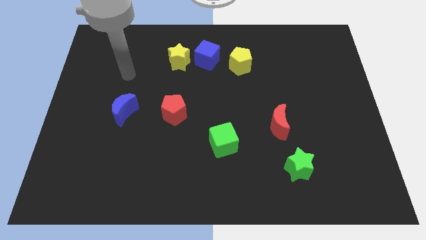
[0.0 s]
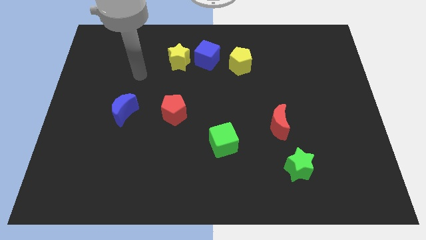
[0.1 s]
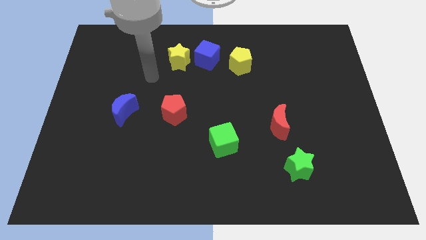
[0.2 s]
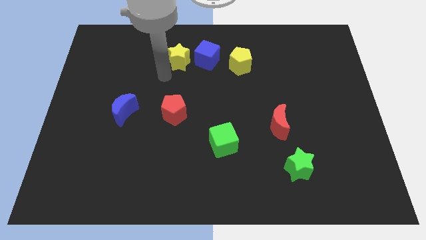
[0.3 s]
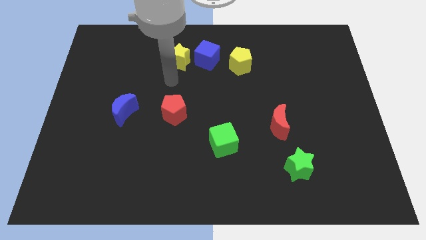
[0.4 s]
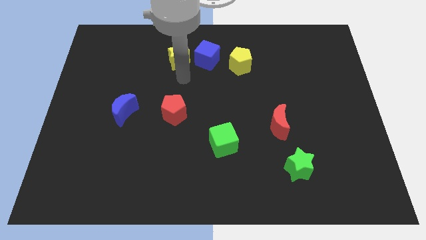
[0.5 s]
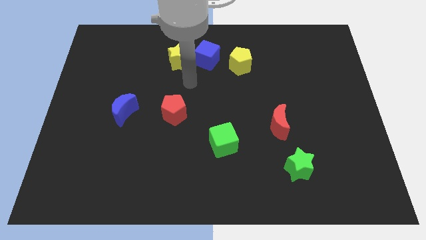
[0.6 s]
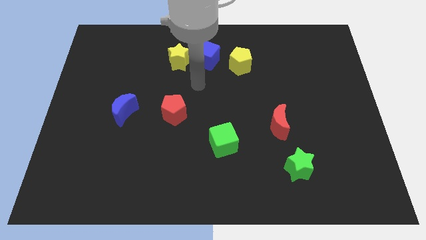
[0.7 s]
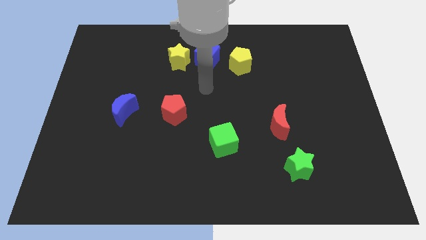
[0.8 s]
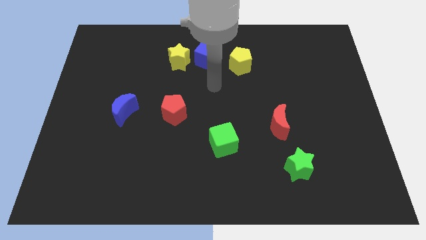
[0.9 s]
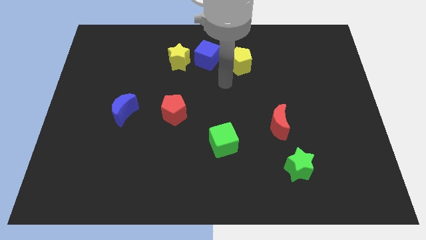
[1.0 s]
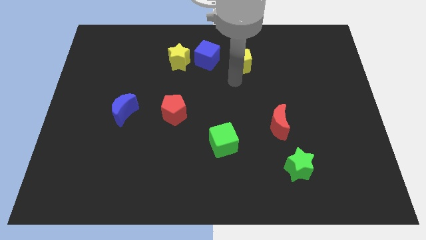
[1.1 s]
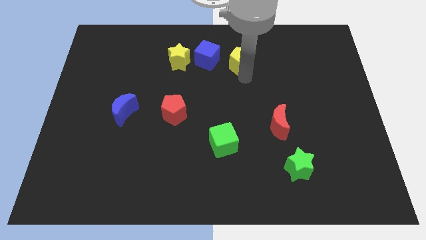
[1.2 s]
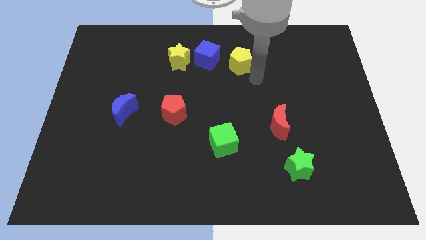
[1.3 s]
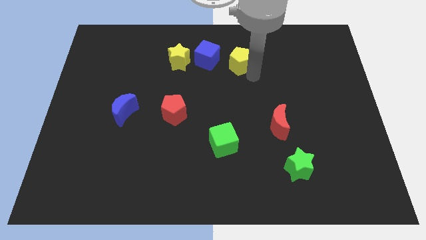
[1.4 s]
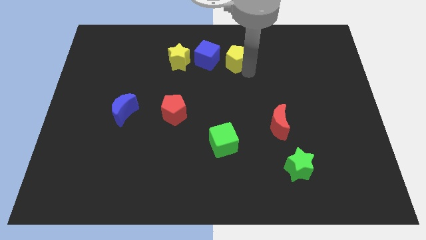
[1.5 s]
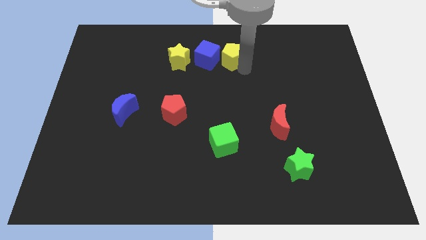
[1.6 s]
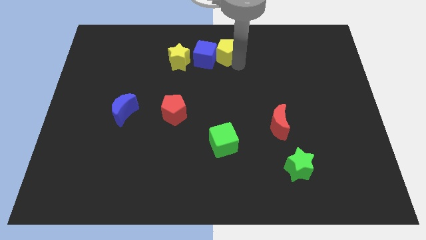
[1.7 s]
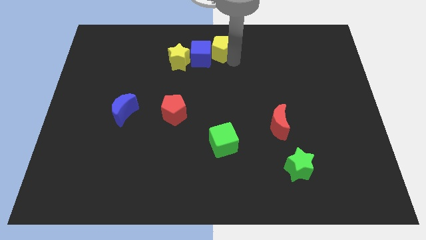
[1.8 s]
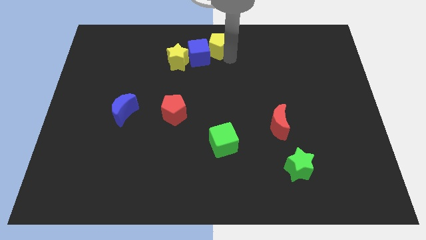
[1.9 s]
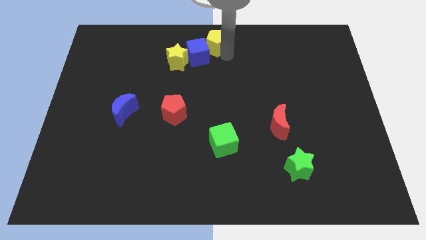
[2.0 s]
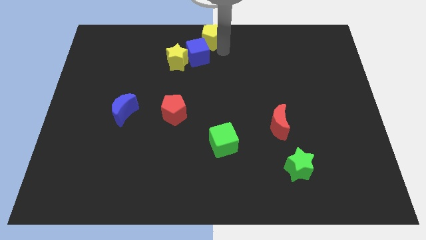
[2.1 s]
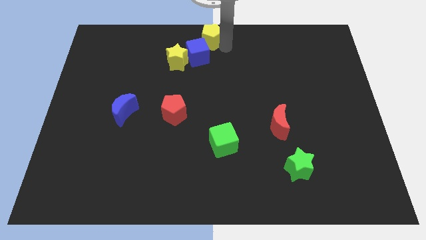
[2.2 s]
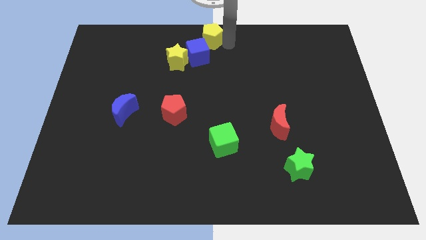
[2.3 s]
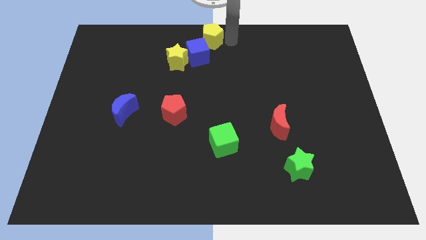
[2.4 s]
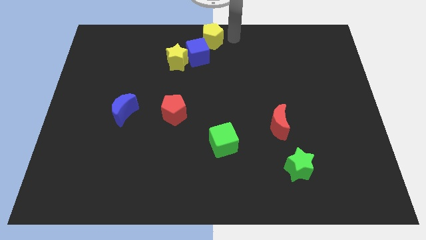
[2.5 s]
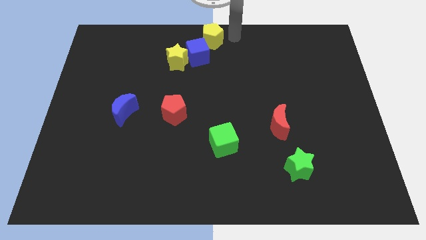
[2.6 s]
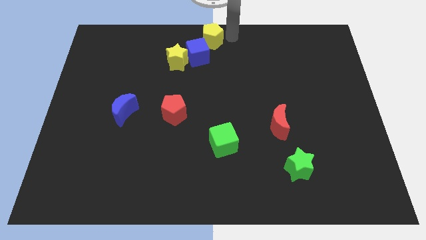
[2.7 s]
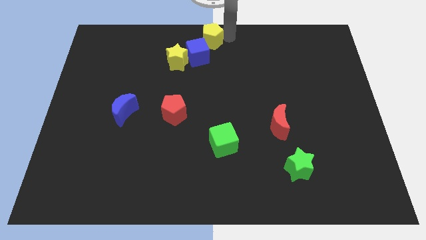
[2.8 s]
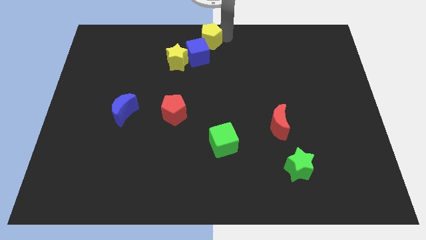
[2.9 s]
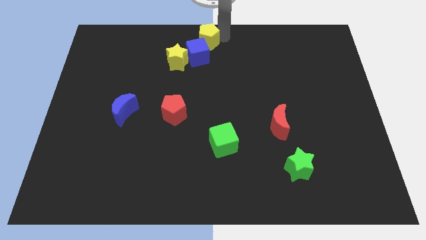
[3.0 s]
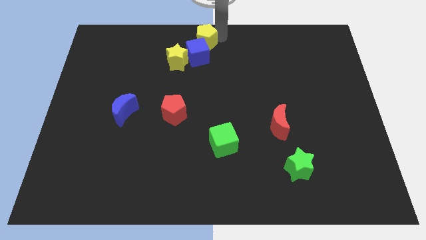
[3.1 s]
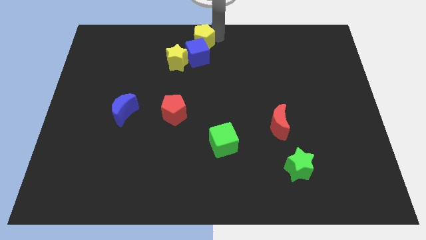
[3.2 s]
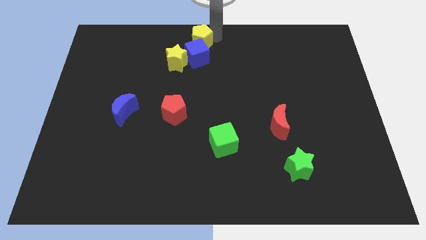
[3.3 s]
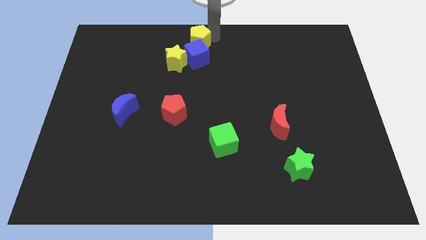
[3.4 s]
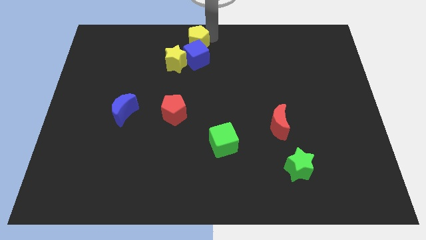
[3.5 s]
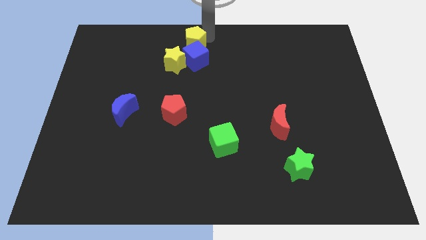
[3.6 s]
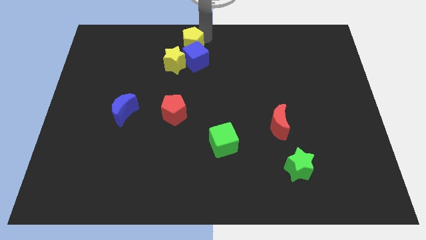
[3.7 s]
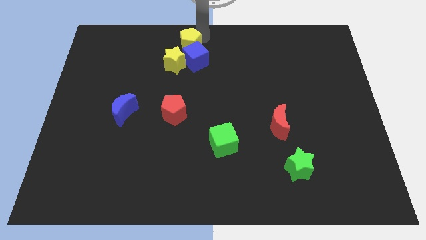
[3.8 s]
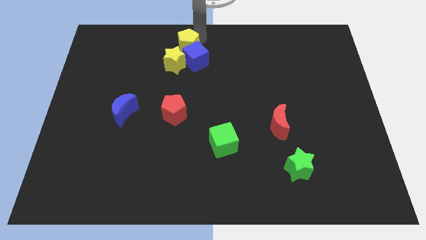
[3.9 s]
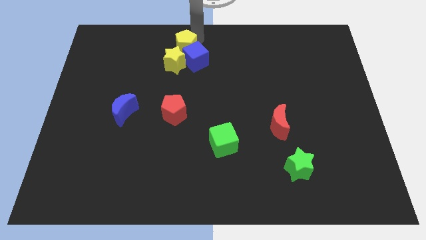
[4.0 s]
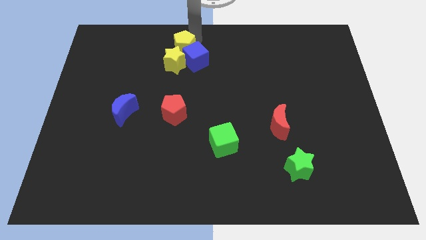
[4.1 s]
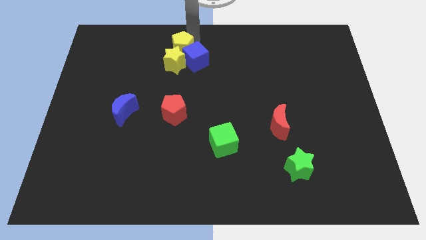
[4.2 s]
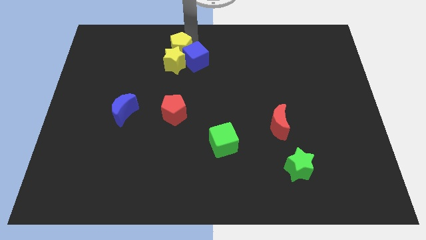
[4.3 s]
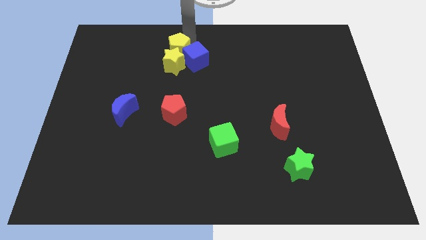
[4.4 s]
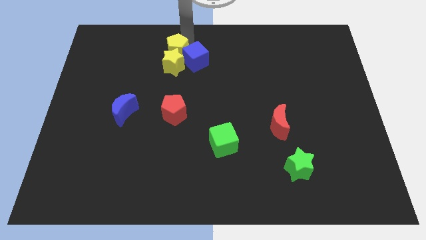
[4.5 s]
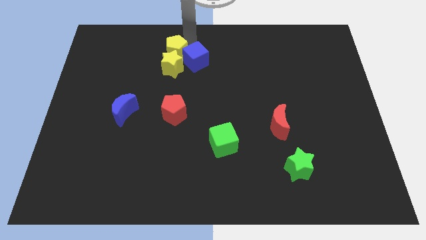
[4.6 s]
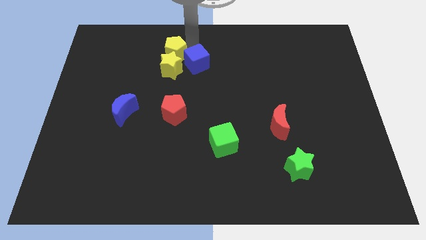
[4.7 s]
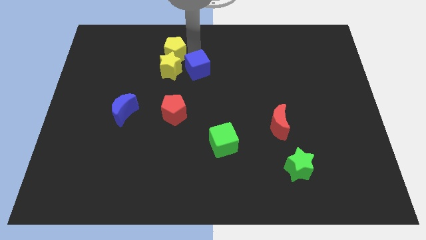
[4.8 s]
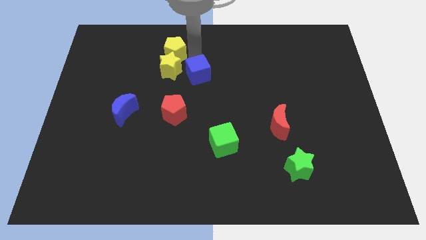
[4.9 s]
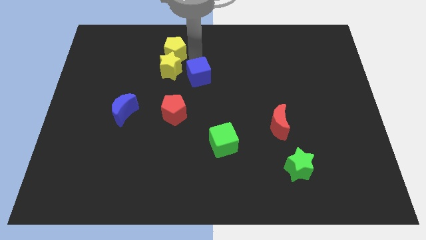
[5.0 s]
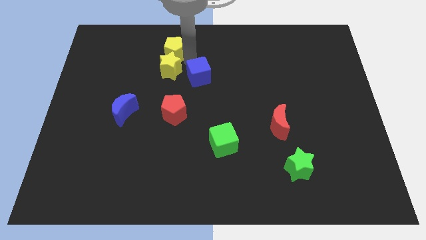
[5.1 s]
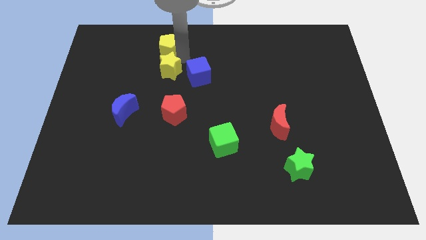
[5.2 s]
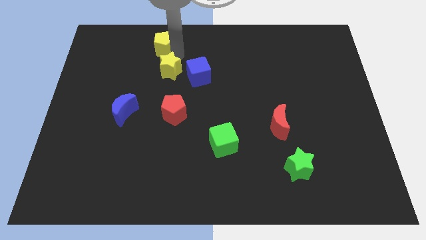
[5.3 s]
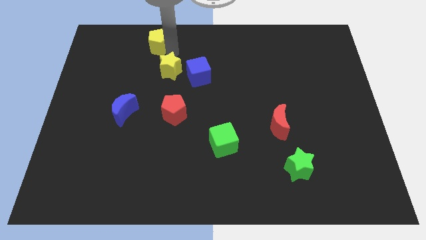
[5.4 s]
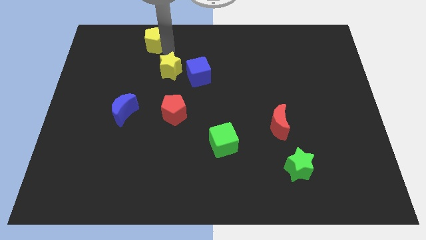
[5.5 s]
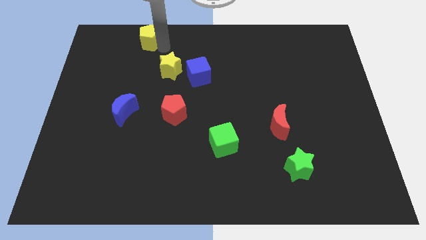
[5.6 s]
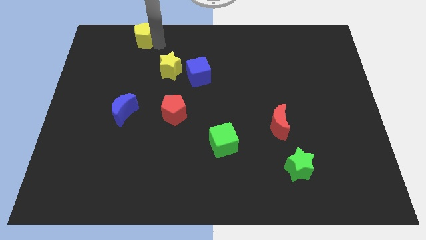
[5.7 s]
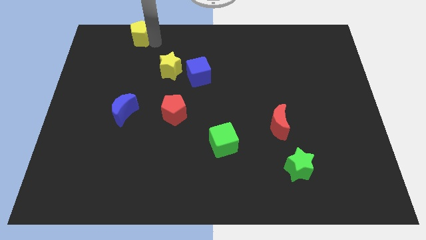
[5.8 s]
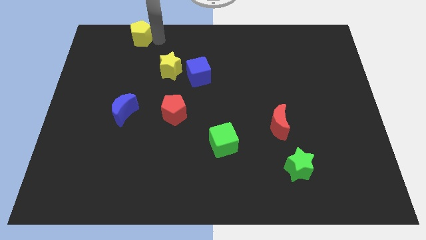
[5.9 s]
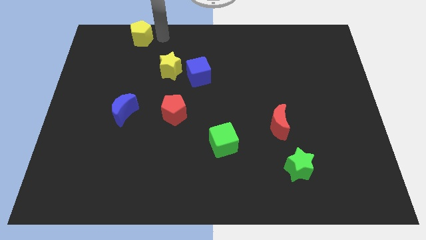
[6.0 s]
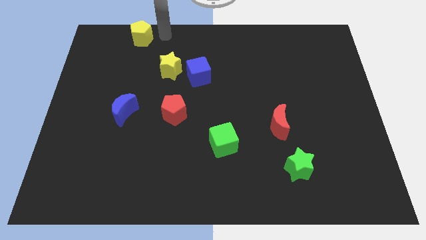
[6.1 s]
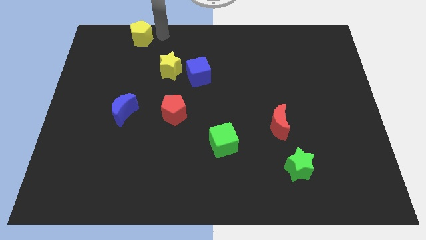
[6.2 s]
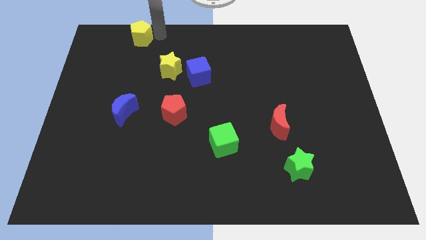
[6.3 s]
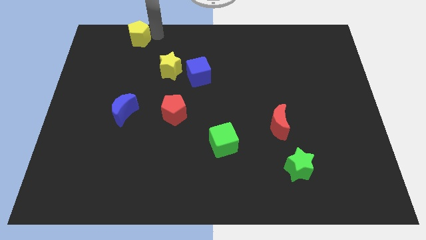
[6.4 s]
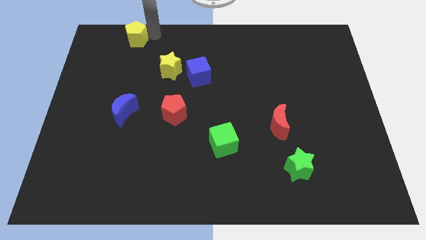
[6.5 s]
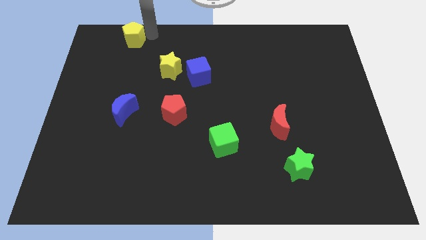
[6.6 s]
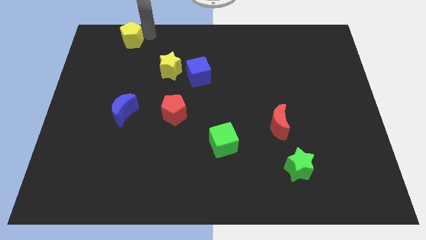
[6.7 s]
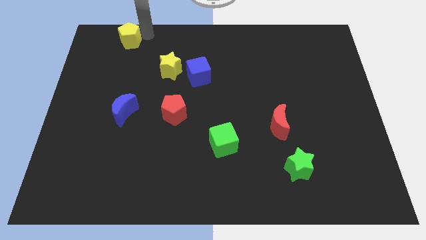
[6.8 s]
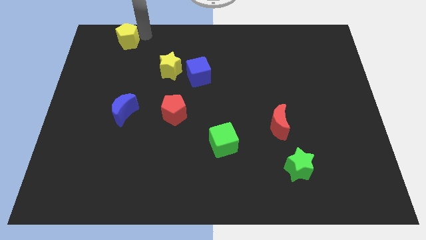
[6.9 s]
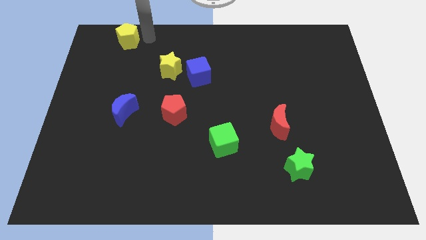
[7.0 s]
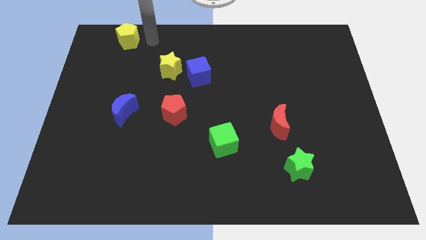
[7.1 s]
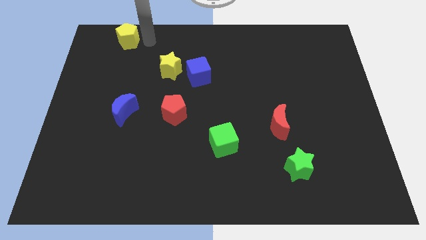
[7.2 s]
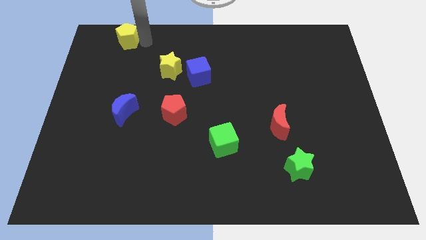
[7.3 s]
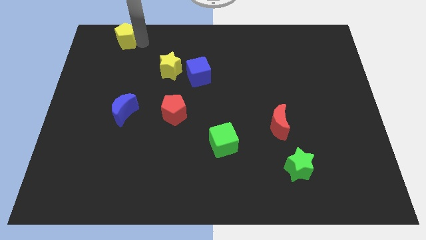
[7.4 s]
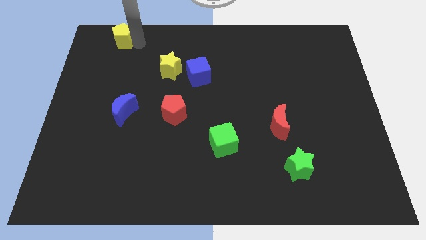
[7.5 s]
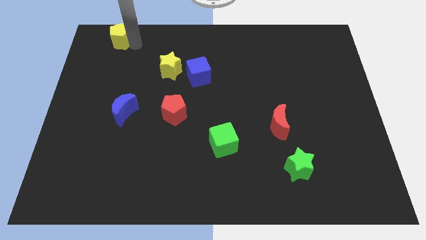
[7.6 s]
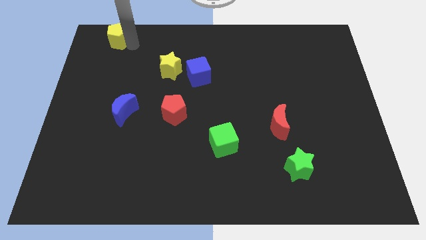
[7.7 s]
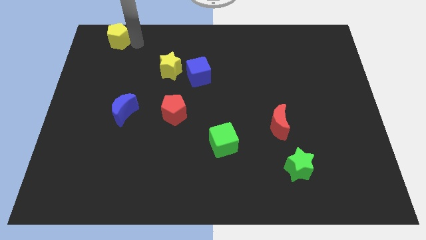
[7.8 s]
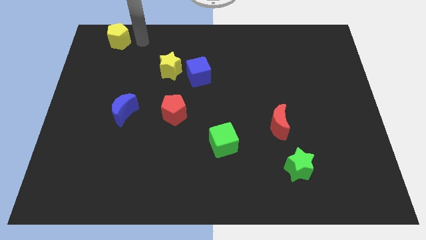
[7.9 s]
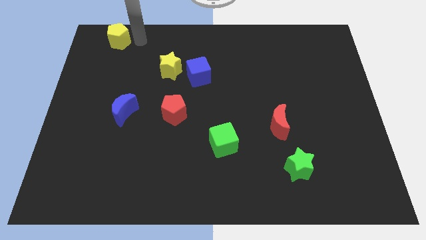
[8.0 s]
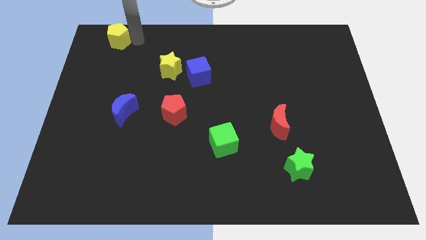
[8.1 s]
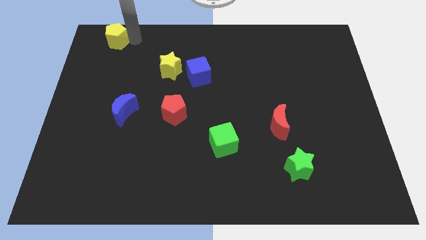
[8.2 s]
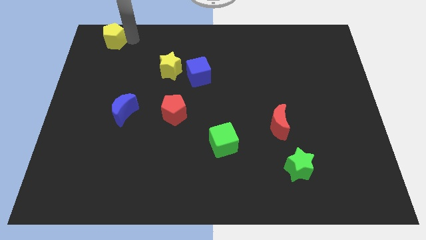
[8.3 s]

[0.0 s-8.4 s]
push the yellow pentagon to the top left
